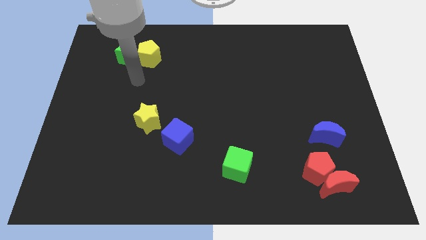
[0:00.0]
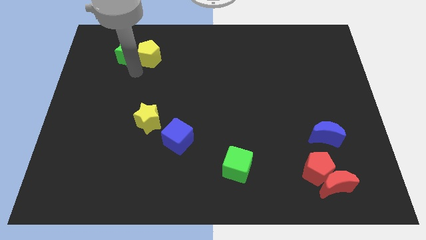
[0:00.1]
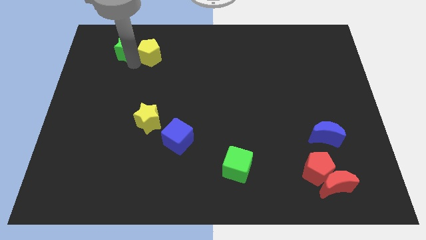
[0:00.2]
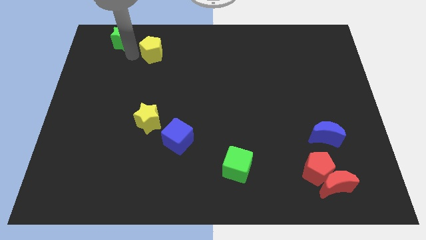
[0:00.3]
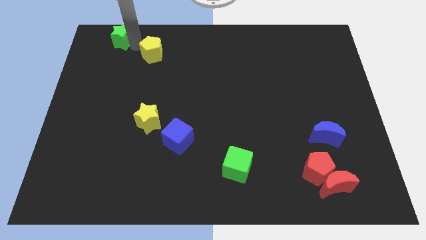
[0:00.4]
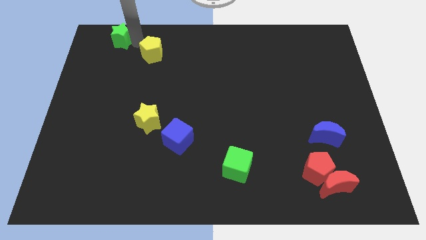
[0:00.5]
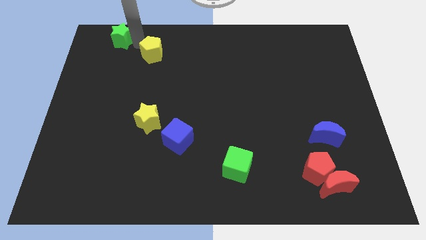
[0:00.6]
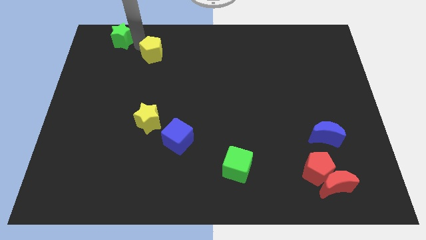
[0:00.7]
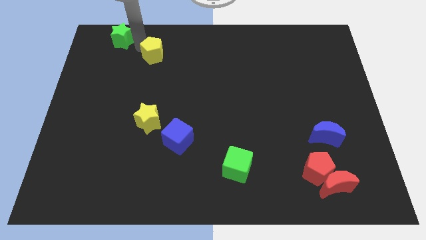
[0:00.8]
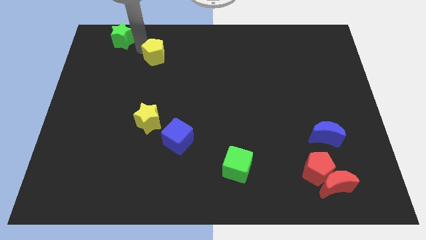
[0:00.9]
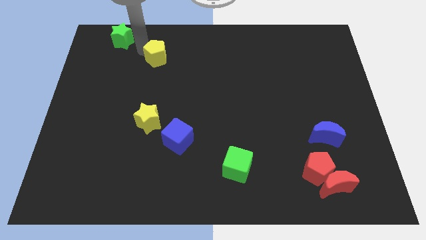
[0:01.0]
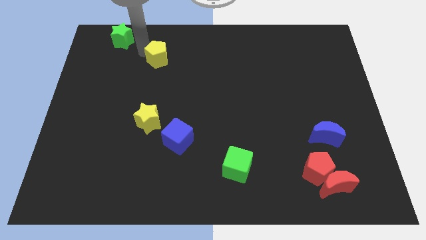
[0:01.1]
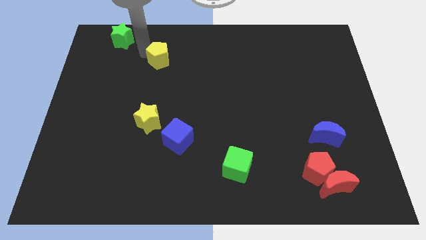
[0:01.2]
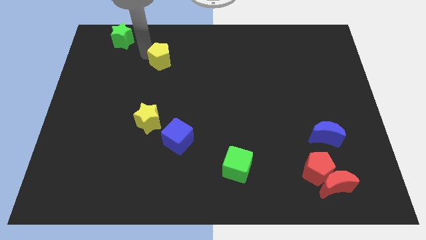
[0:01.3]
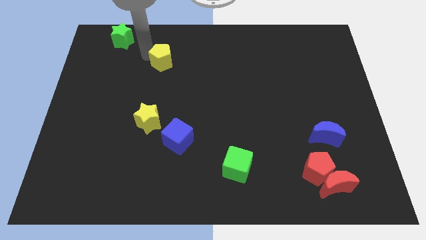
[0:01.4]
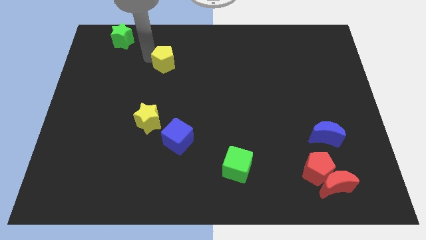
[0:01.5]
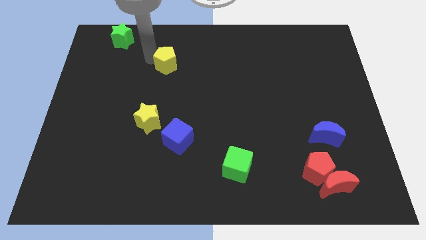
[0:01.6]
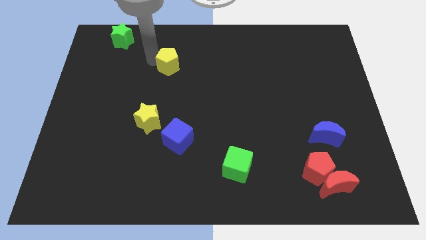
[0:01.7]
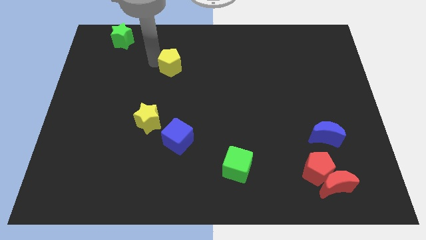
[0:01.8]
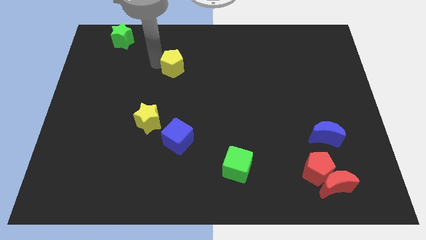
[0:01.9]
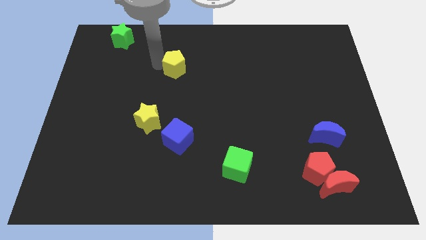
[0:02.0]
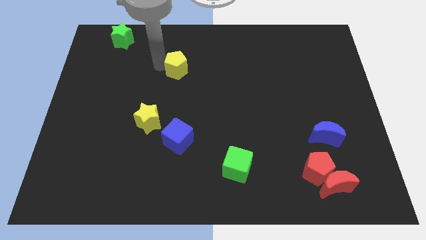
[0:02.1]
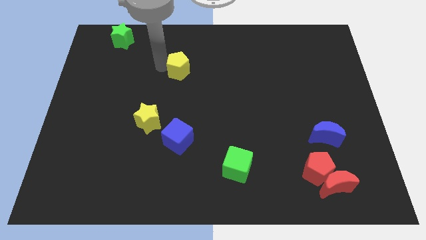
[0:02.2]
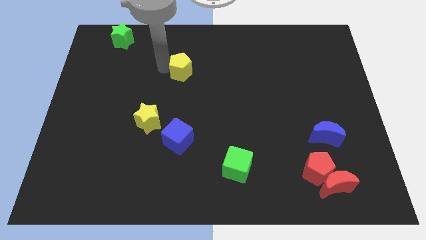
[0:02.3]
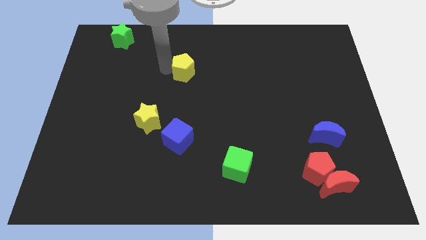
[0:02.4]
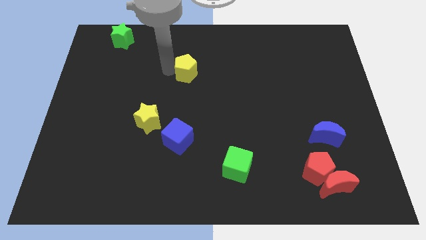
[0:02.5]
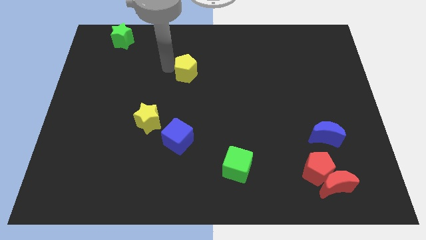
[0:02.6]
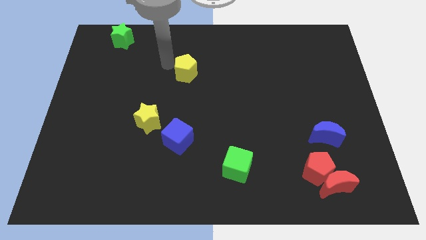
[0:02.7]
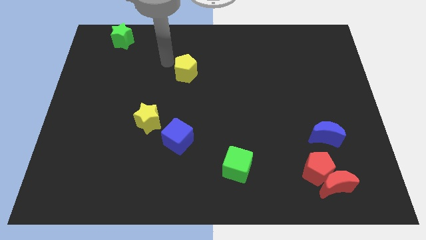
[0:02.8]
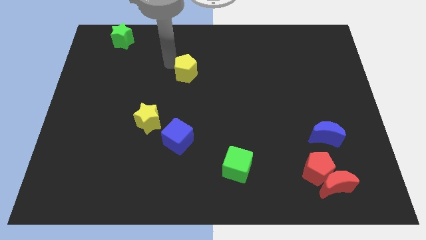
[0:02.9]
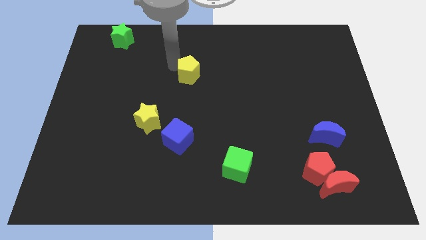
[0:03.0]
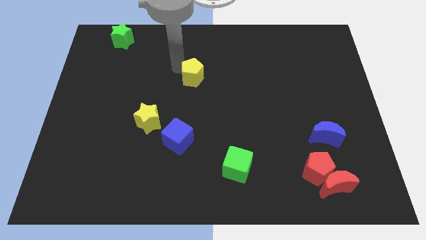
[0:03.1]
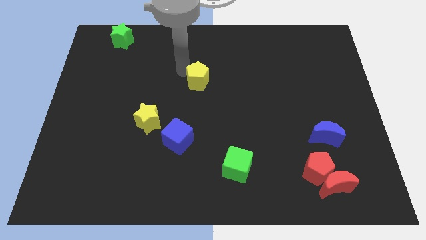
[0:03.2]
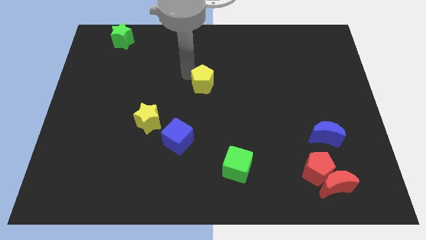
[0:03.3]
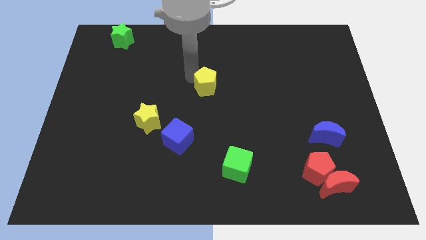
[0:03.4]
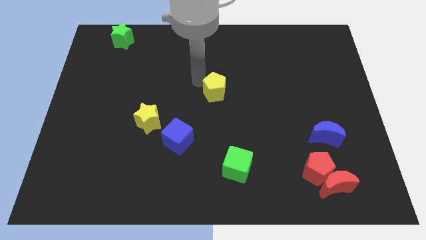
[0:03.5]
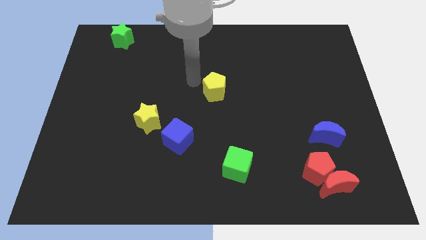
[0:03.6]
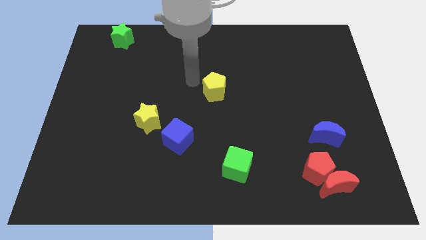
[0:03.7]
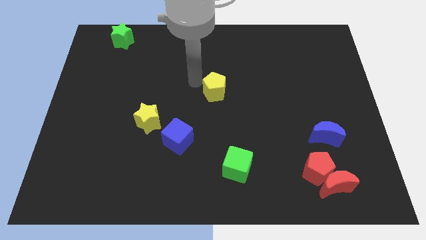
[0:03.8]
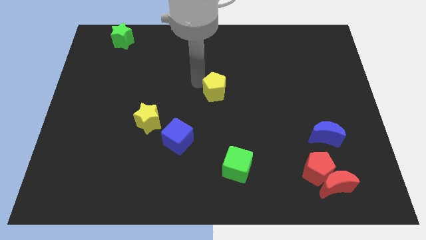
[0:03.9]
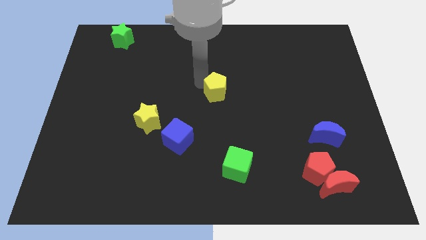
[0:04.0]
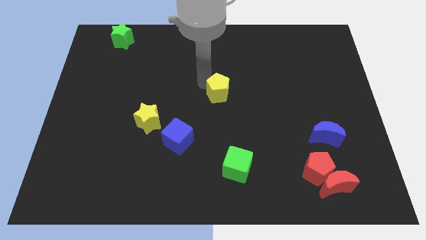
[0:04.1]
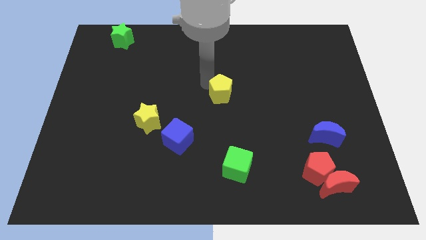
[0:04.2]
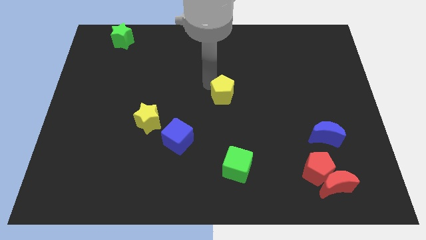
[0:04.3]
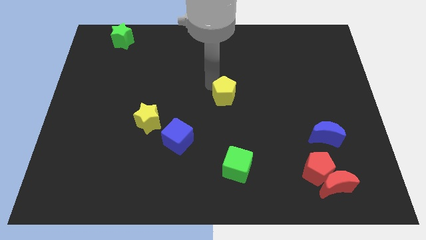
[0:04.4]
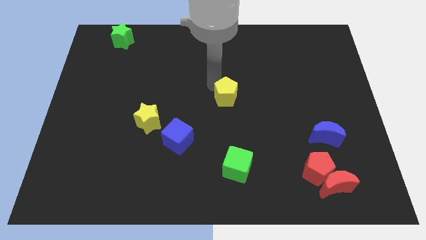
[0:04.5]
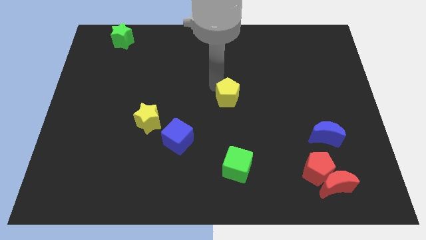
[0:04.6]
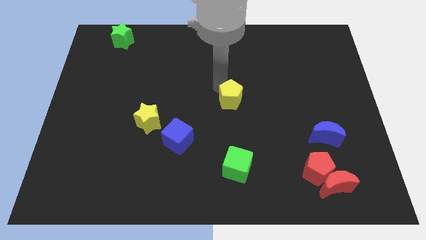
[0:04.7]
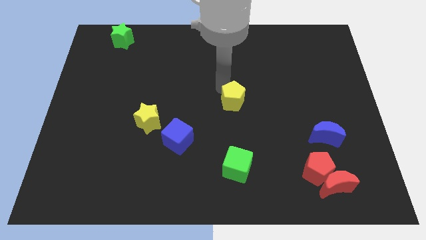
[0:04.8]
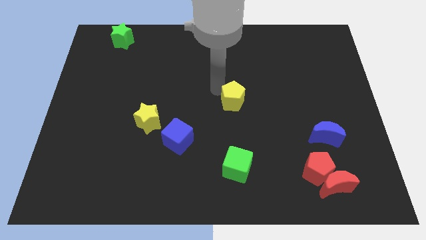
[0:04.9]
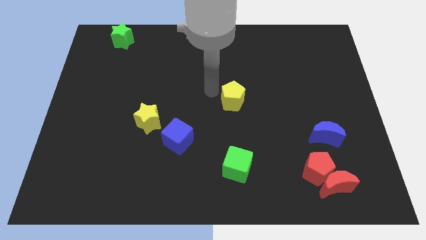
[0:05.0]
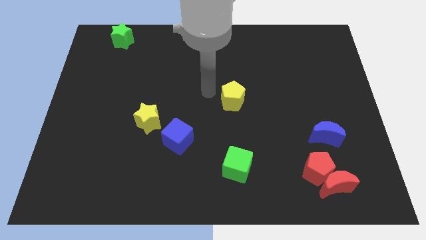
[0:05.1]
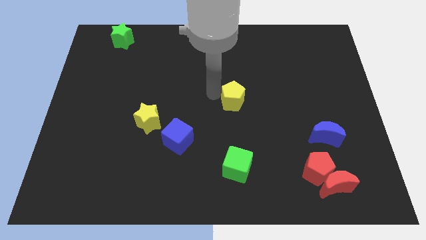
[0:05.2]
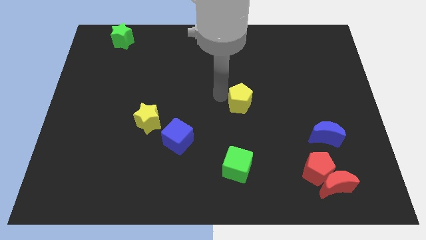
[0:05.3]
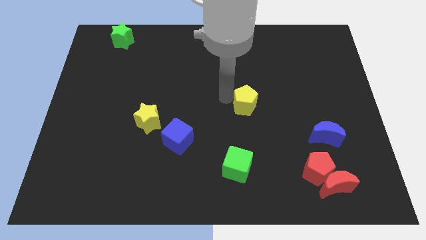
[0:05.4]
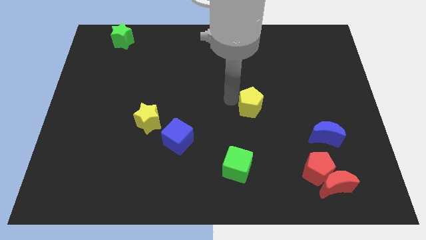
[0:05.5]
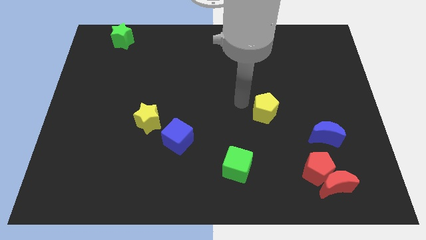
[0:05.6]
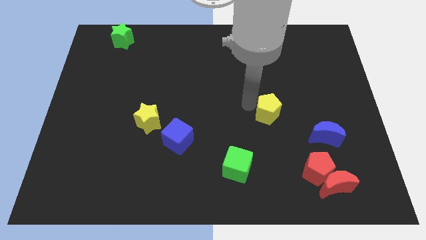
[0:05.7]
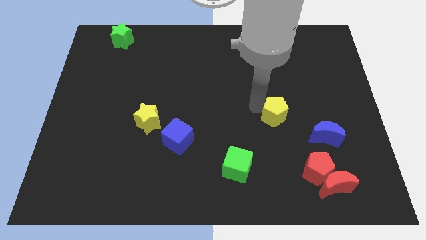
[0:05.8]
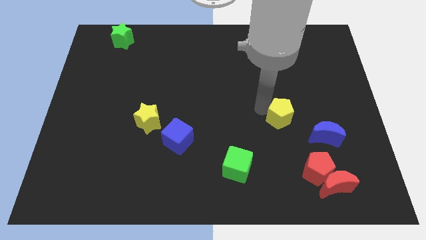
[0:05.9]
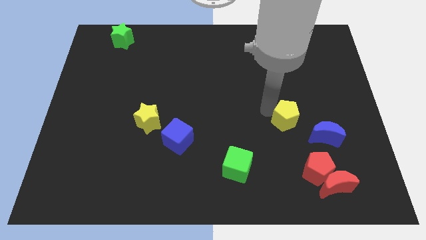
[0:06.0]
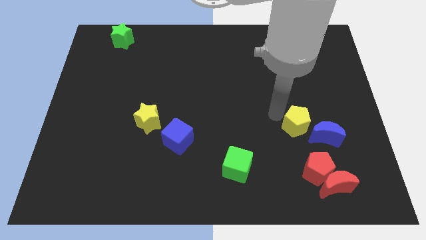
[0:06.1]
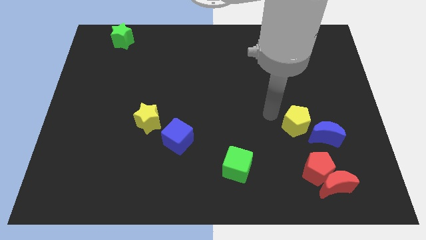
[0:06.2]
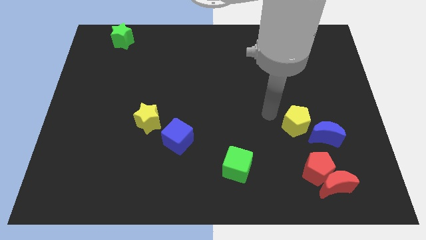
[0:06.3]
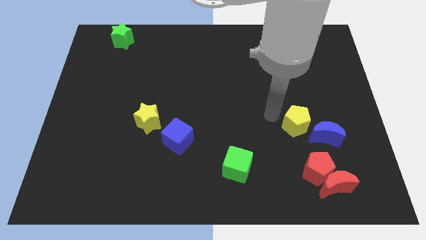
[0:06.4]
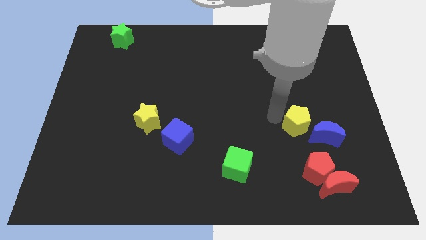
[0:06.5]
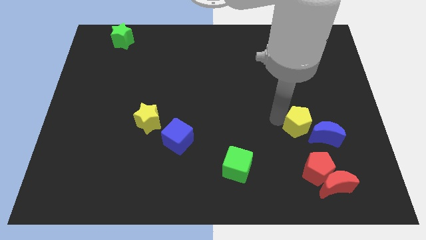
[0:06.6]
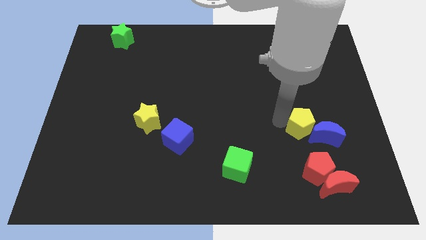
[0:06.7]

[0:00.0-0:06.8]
put the yellow pentagon to the blue moon
